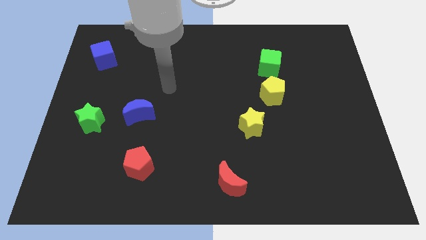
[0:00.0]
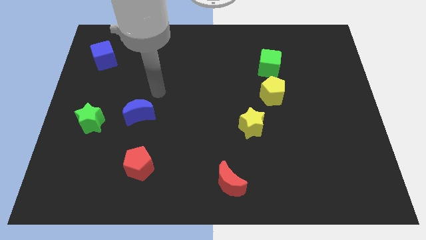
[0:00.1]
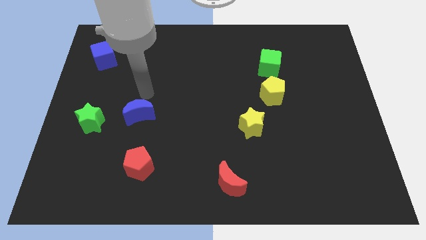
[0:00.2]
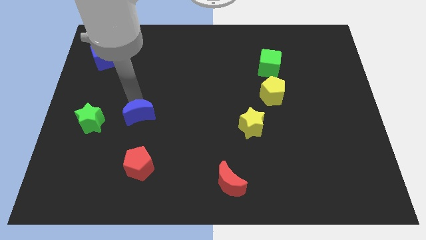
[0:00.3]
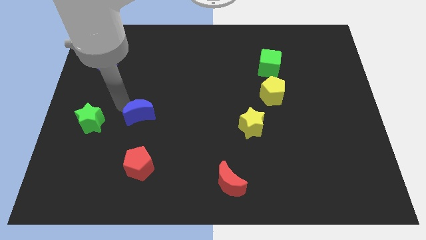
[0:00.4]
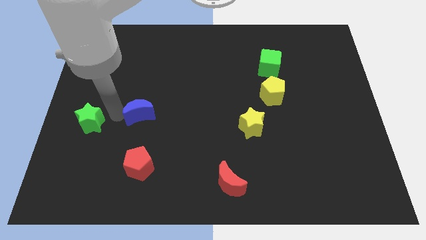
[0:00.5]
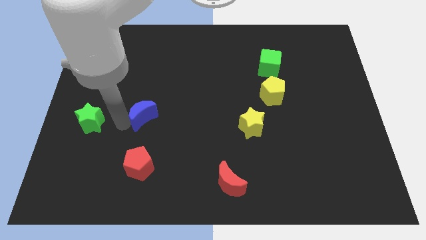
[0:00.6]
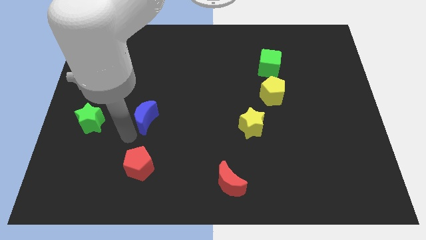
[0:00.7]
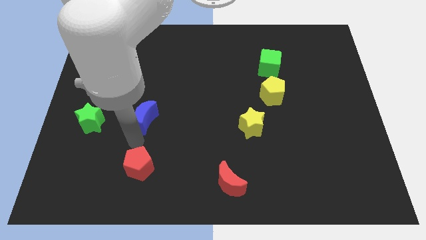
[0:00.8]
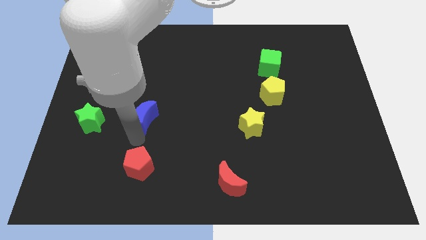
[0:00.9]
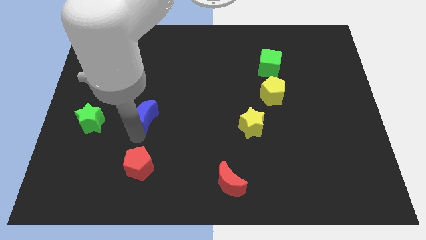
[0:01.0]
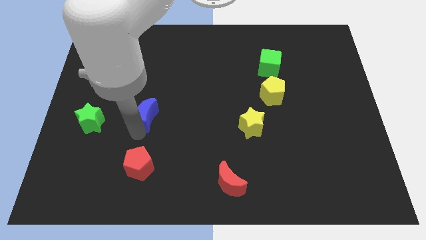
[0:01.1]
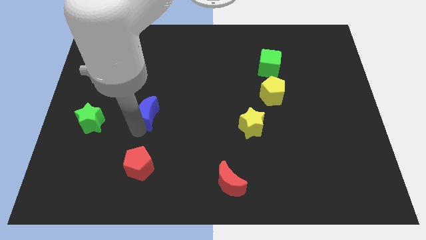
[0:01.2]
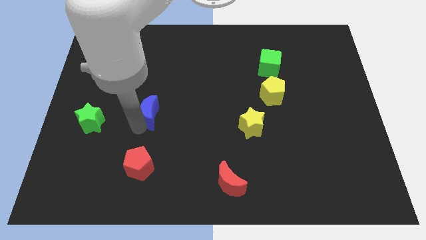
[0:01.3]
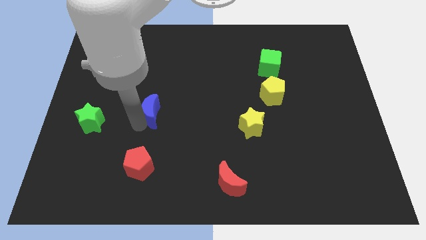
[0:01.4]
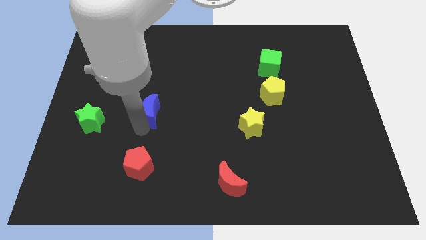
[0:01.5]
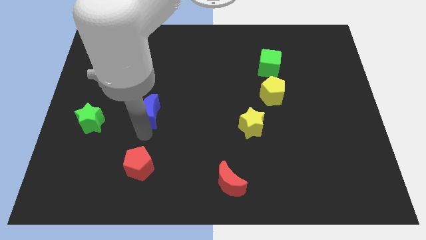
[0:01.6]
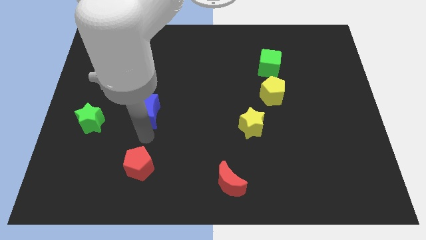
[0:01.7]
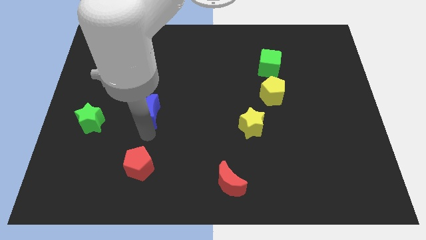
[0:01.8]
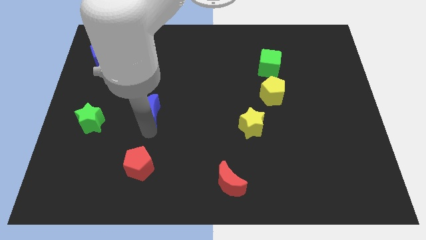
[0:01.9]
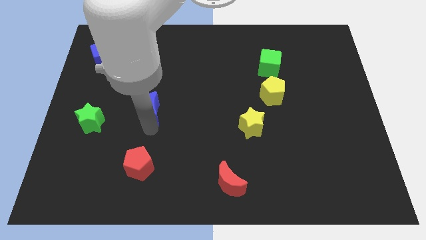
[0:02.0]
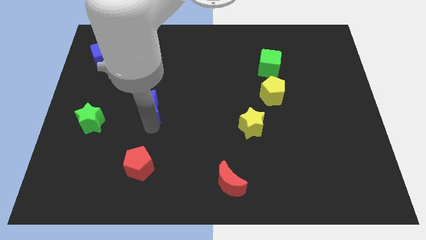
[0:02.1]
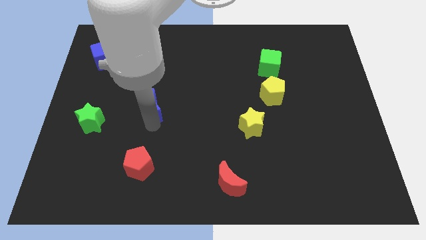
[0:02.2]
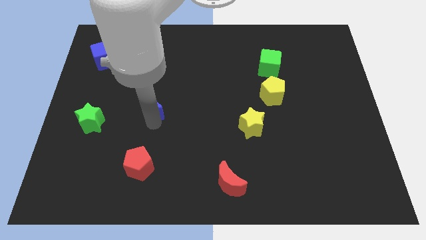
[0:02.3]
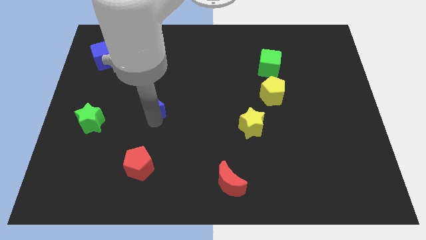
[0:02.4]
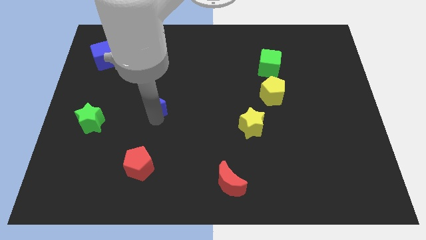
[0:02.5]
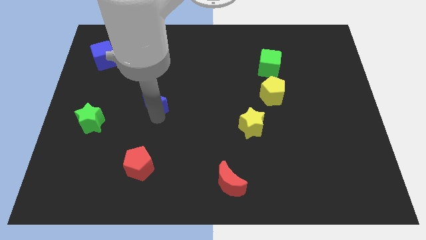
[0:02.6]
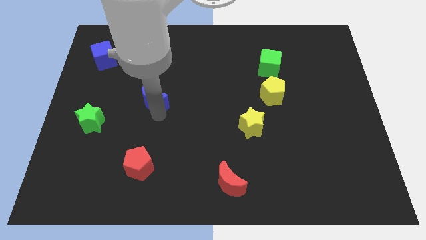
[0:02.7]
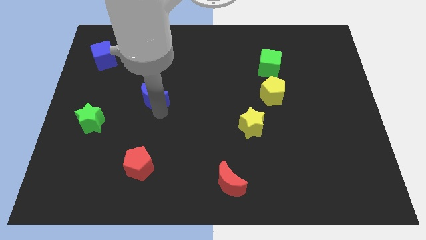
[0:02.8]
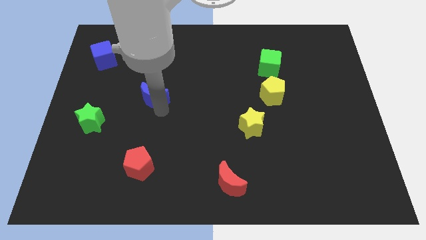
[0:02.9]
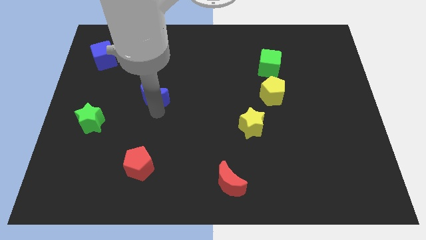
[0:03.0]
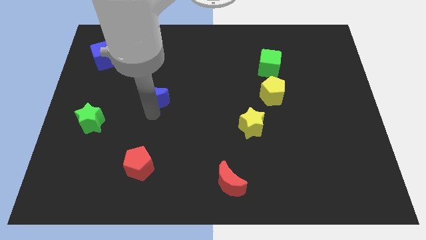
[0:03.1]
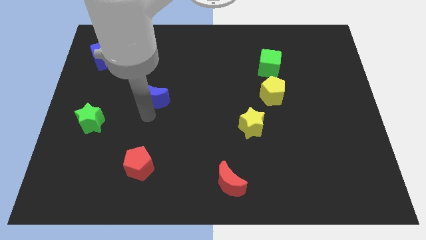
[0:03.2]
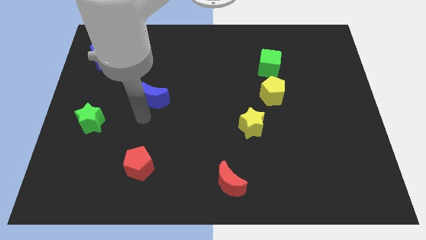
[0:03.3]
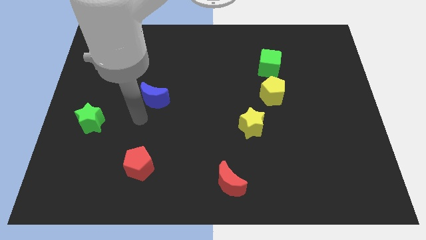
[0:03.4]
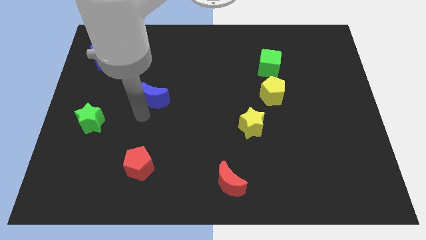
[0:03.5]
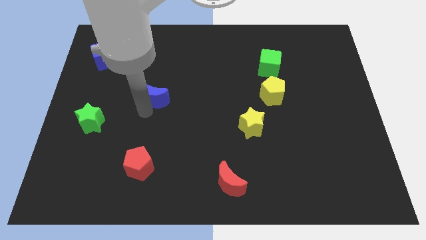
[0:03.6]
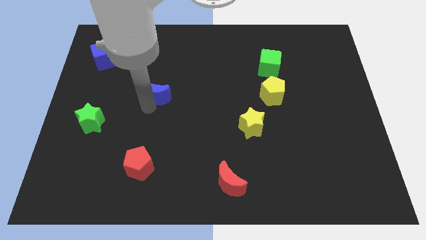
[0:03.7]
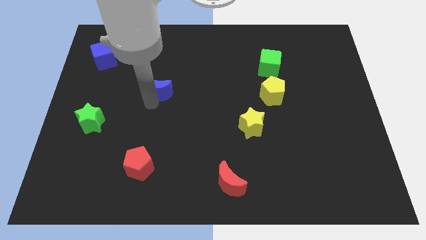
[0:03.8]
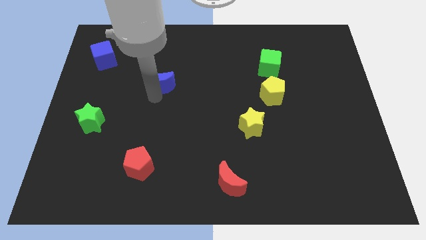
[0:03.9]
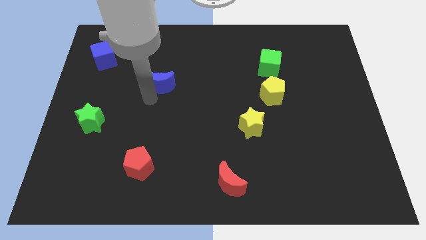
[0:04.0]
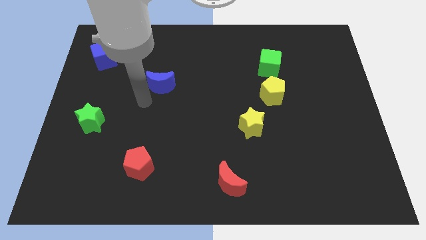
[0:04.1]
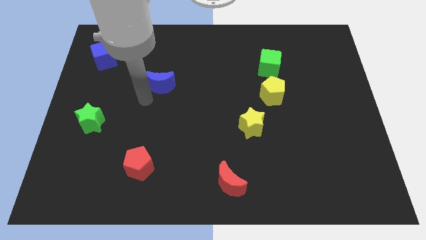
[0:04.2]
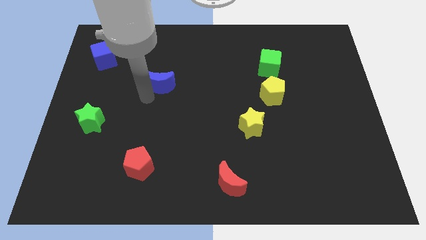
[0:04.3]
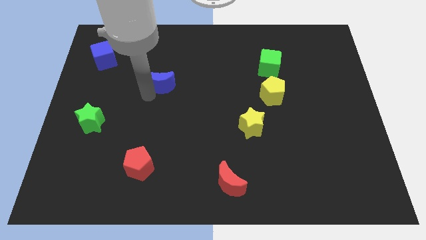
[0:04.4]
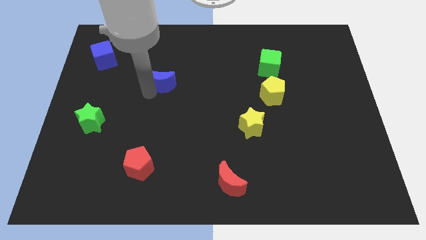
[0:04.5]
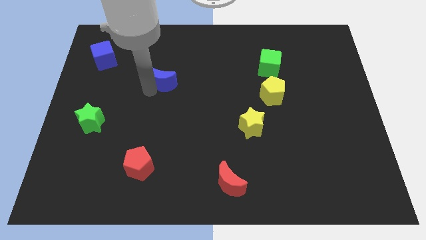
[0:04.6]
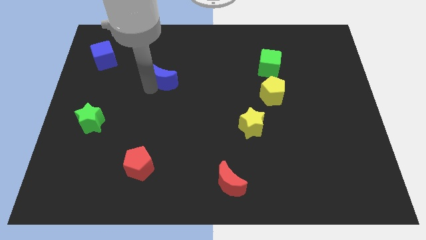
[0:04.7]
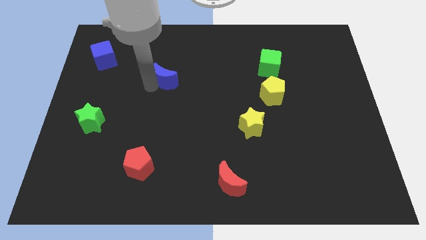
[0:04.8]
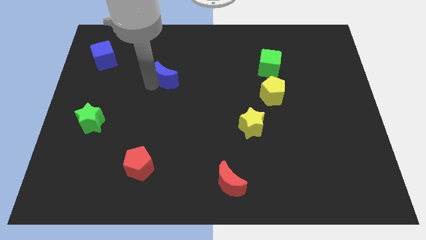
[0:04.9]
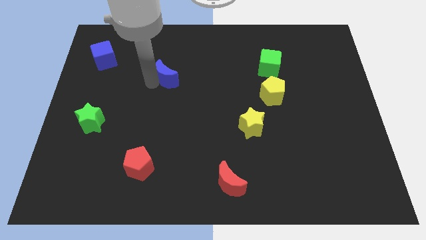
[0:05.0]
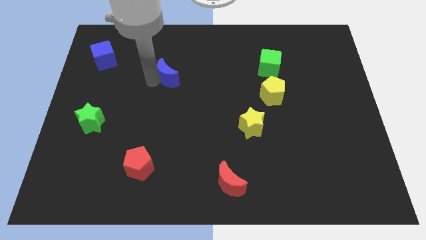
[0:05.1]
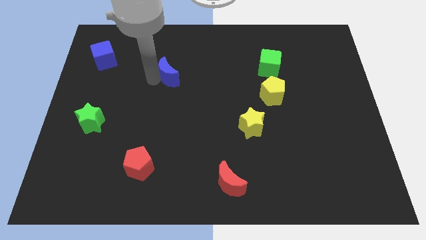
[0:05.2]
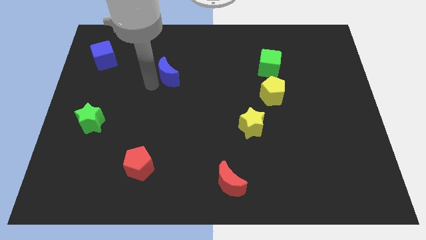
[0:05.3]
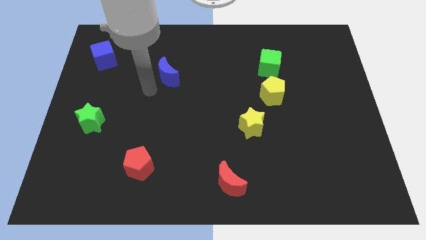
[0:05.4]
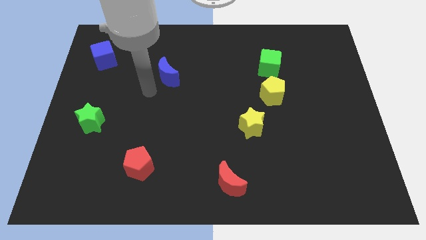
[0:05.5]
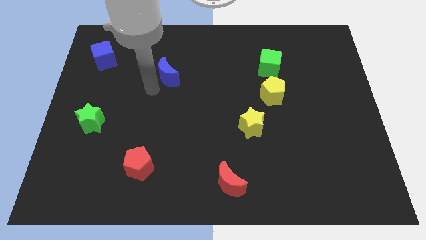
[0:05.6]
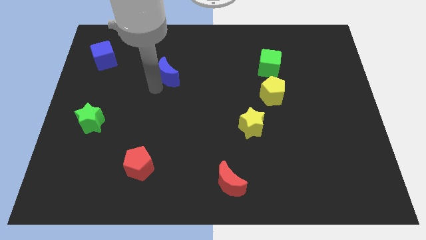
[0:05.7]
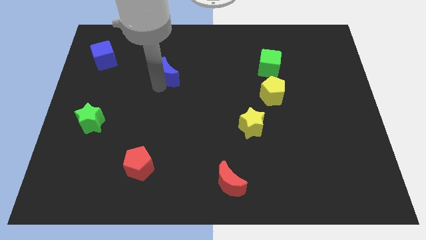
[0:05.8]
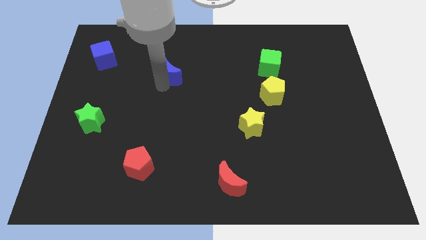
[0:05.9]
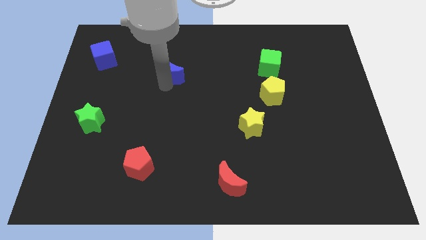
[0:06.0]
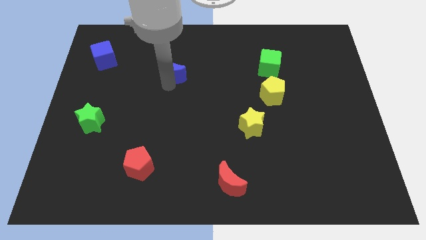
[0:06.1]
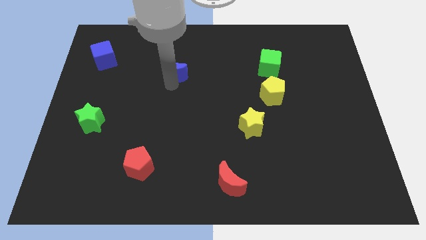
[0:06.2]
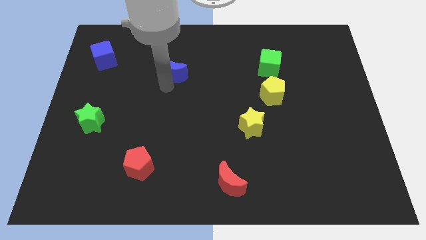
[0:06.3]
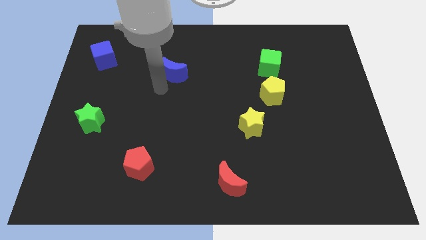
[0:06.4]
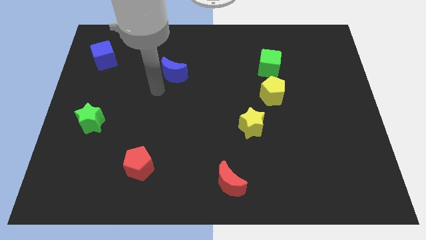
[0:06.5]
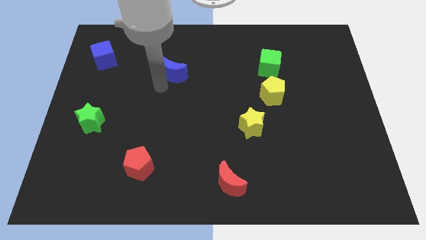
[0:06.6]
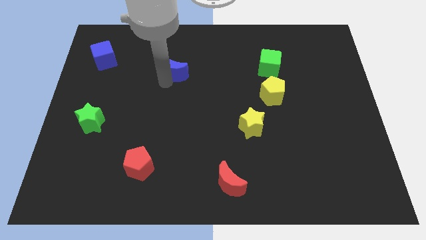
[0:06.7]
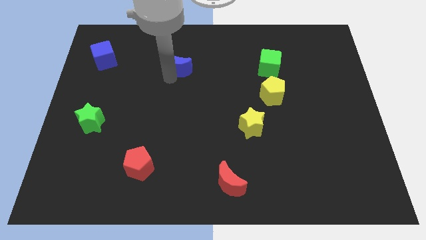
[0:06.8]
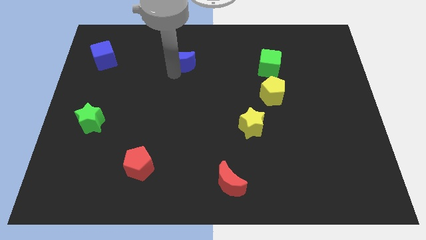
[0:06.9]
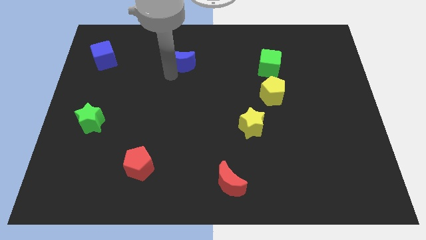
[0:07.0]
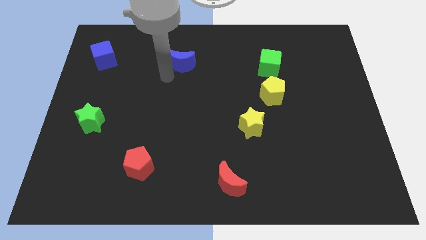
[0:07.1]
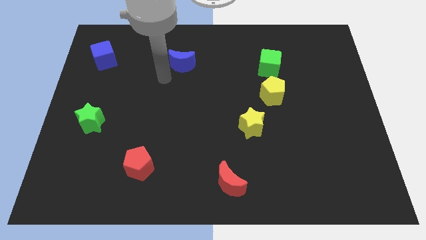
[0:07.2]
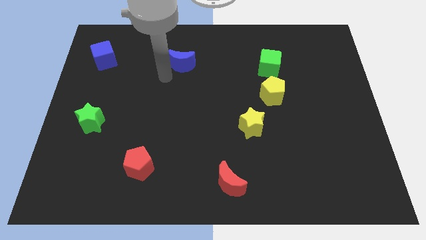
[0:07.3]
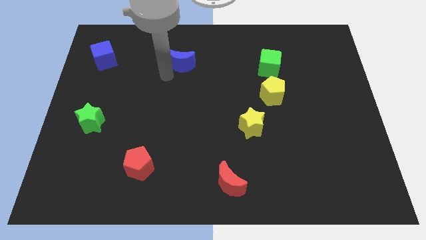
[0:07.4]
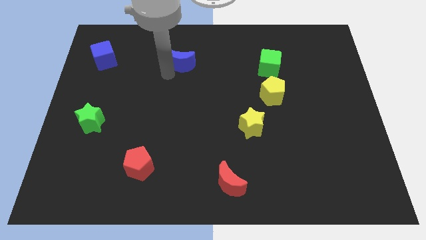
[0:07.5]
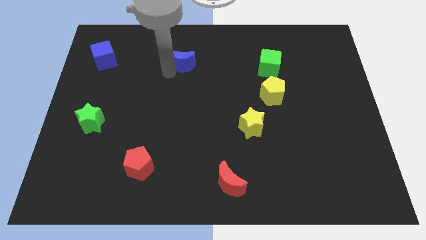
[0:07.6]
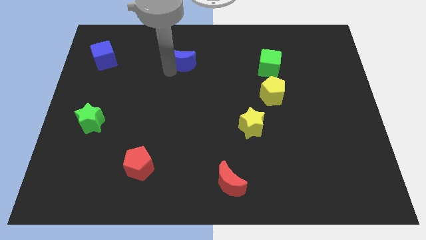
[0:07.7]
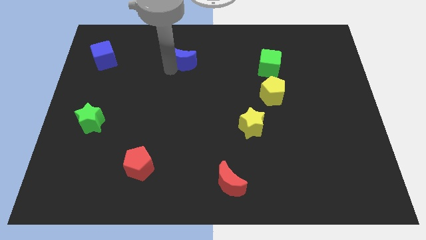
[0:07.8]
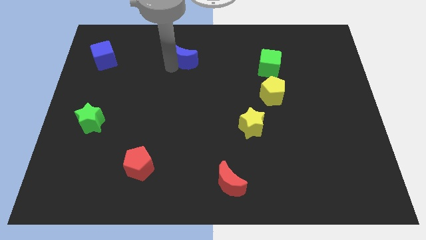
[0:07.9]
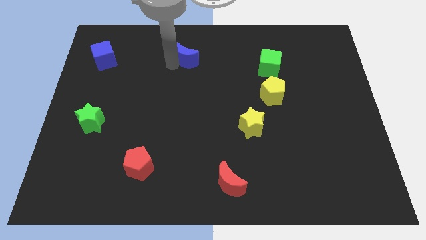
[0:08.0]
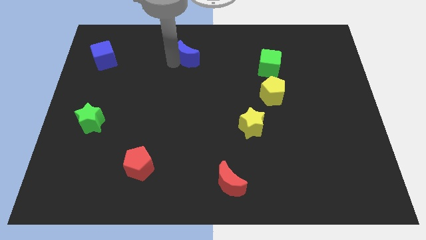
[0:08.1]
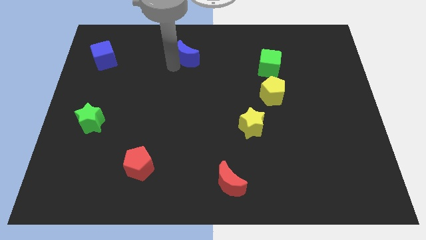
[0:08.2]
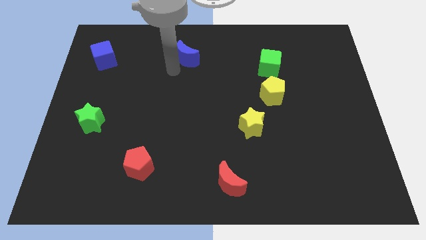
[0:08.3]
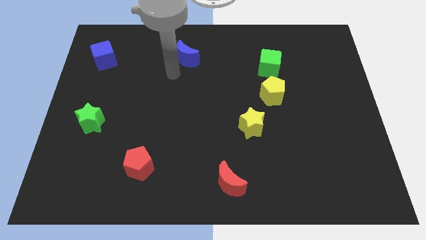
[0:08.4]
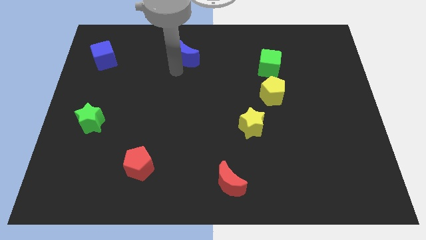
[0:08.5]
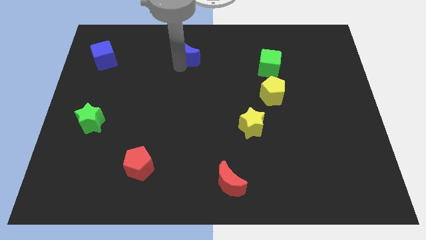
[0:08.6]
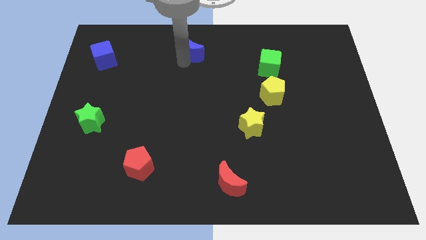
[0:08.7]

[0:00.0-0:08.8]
put the blue moon to the top
